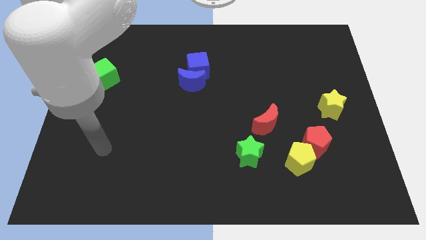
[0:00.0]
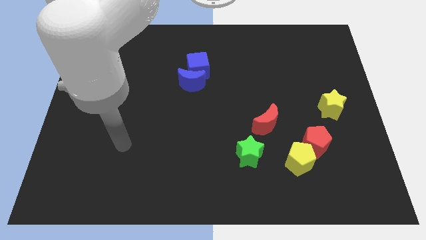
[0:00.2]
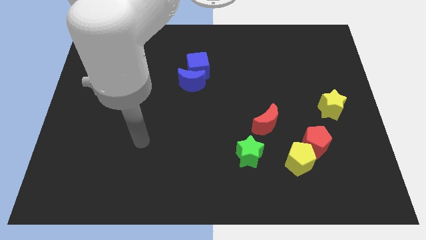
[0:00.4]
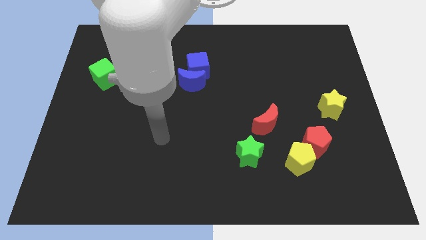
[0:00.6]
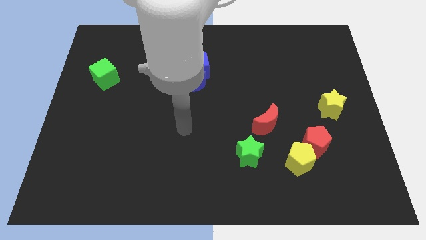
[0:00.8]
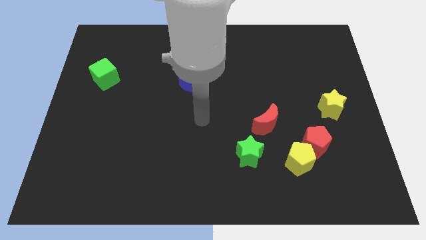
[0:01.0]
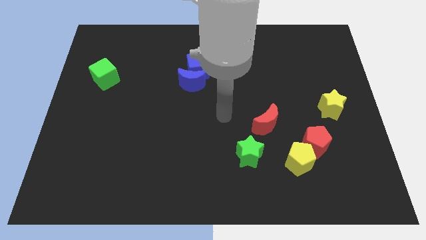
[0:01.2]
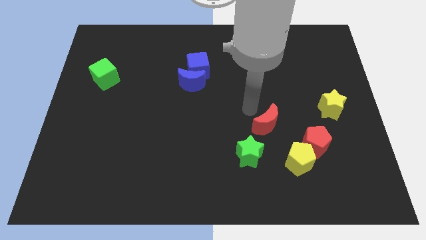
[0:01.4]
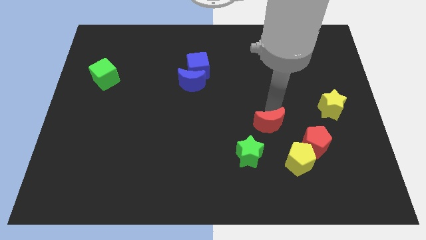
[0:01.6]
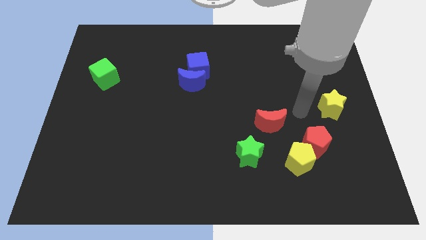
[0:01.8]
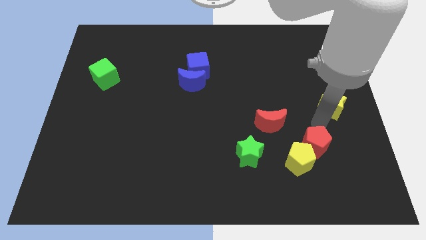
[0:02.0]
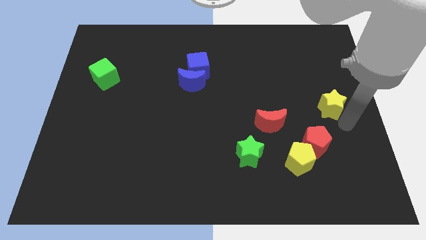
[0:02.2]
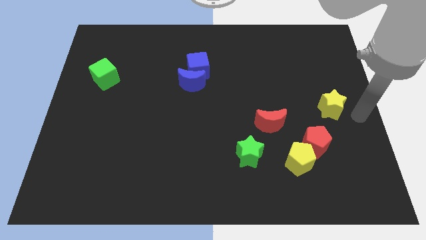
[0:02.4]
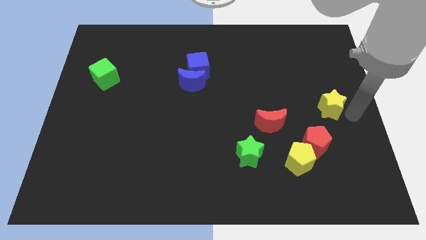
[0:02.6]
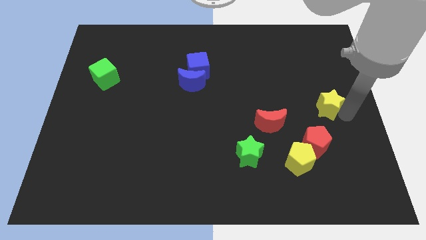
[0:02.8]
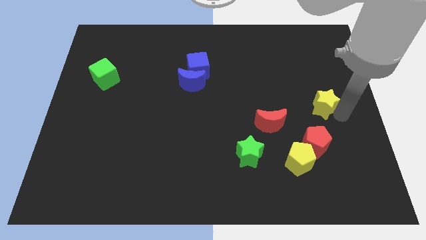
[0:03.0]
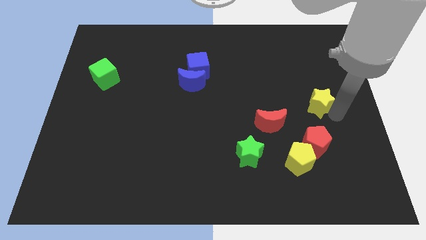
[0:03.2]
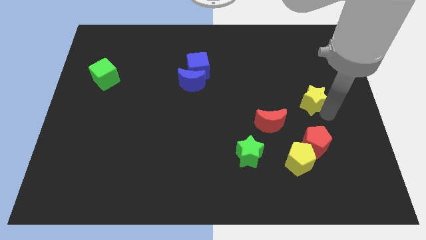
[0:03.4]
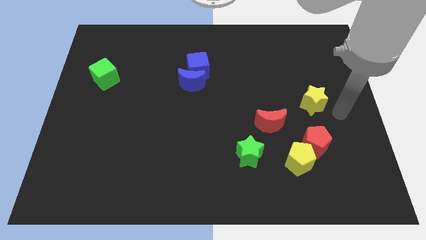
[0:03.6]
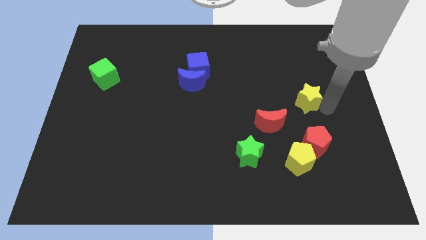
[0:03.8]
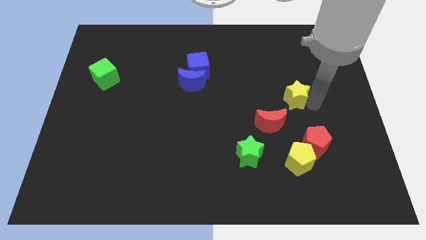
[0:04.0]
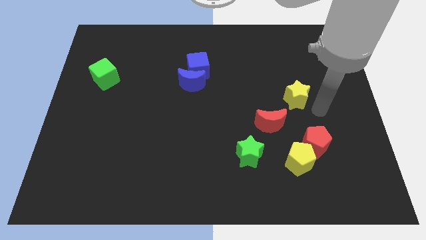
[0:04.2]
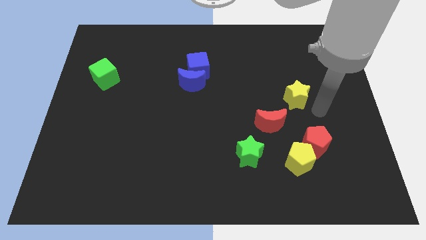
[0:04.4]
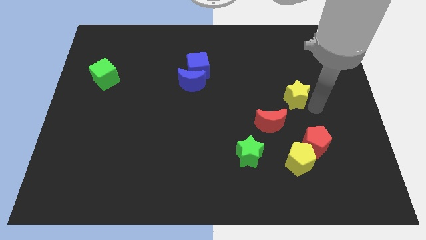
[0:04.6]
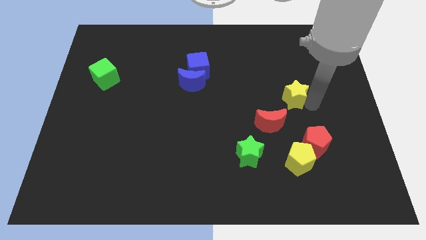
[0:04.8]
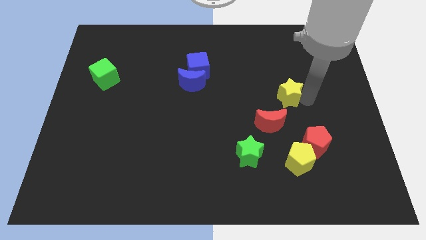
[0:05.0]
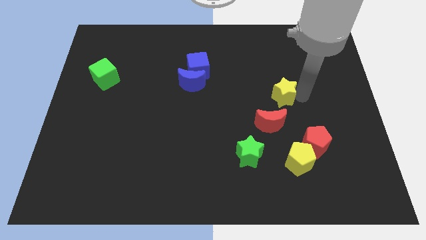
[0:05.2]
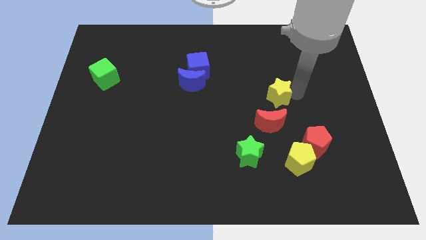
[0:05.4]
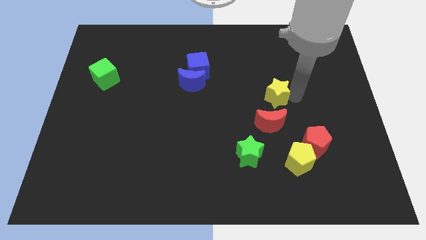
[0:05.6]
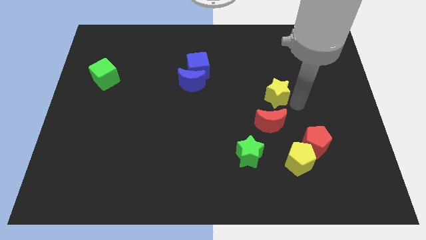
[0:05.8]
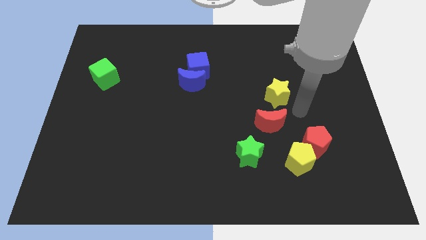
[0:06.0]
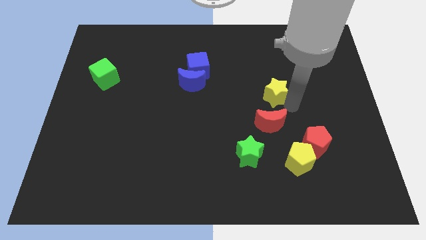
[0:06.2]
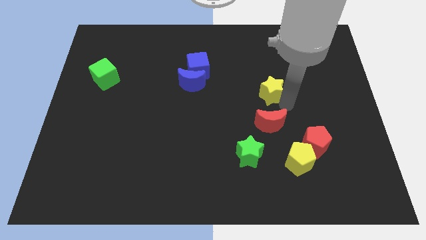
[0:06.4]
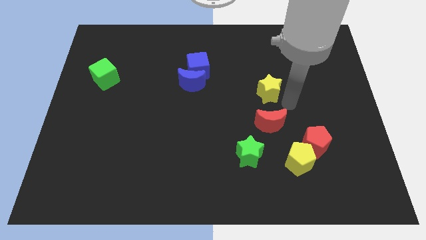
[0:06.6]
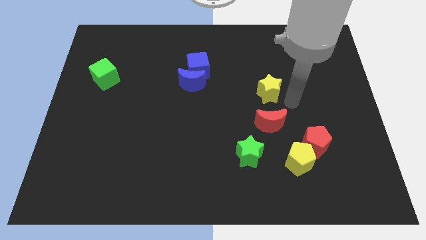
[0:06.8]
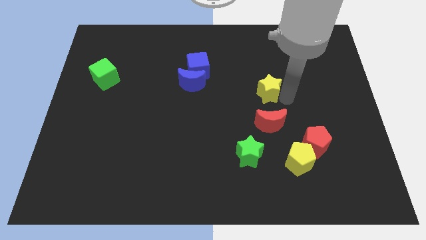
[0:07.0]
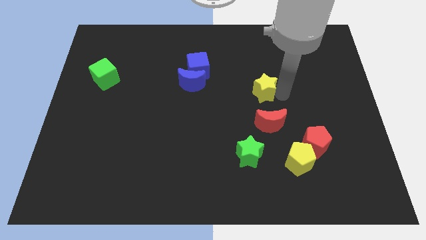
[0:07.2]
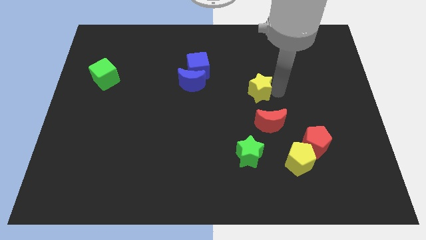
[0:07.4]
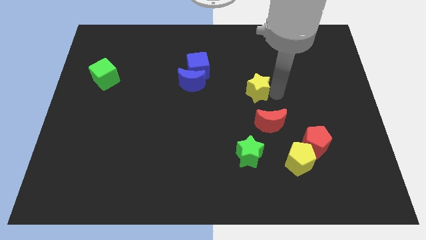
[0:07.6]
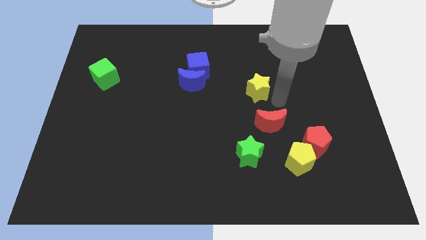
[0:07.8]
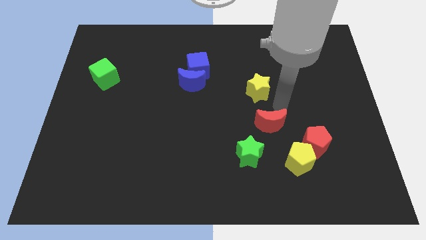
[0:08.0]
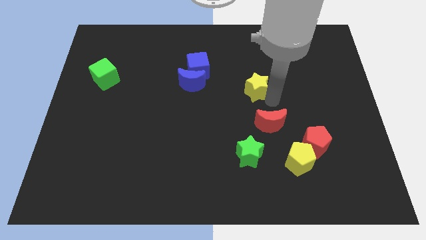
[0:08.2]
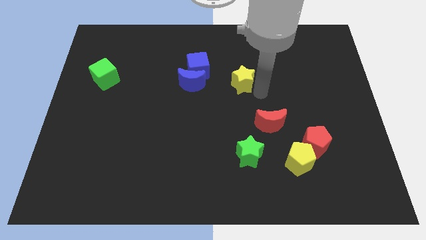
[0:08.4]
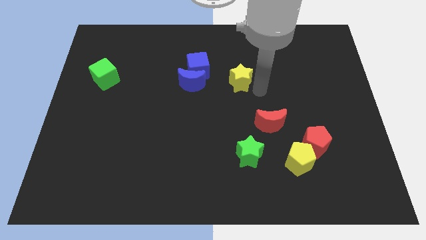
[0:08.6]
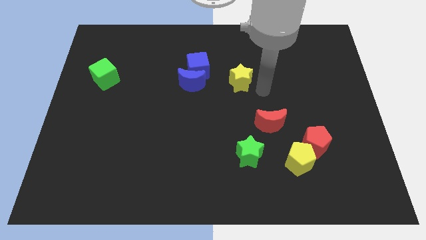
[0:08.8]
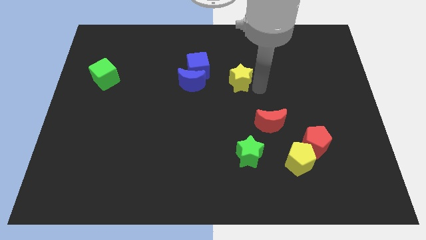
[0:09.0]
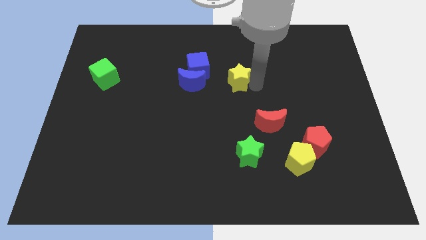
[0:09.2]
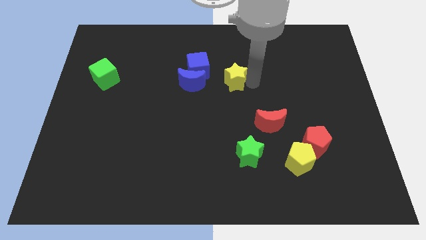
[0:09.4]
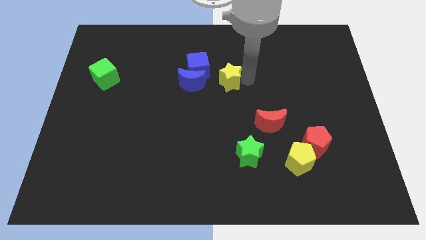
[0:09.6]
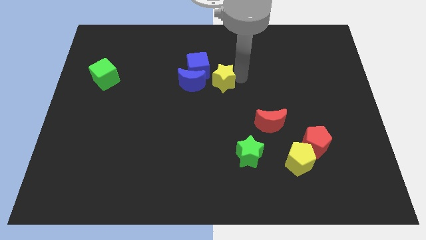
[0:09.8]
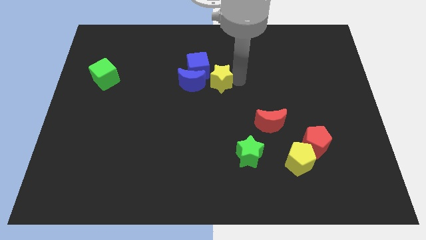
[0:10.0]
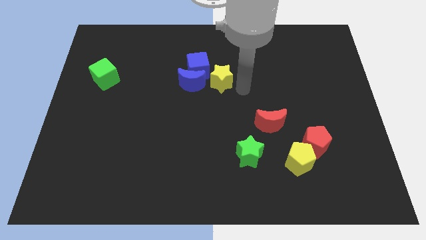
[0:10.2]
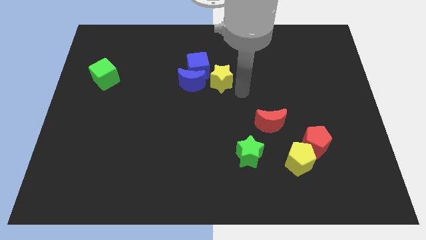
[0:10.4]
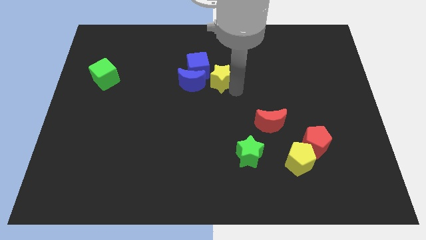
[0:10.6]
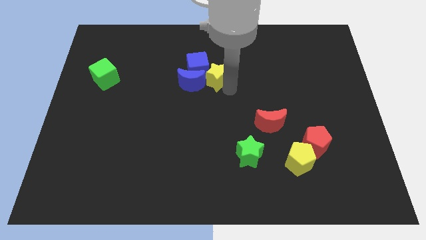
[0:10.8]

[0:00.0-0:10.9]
move the yellow star towards the blue cube

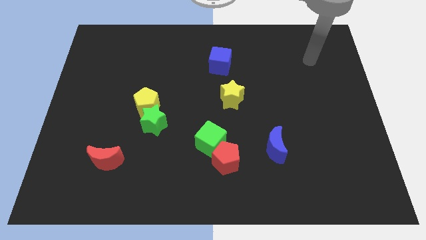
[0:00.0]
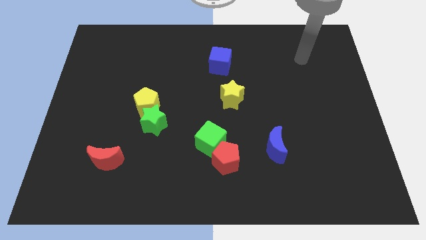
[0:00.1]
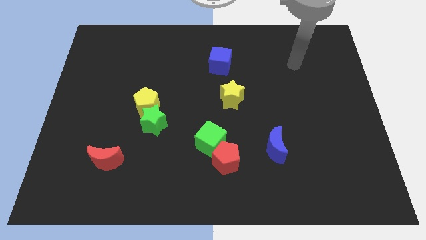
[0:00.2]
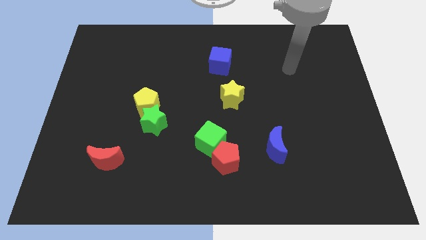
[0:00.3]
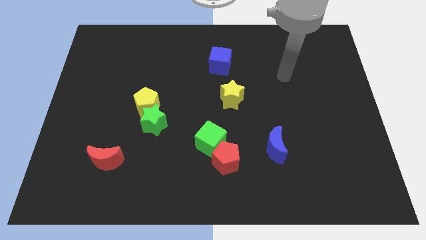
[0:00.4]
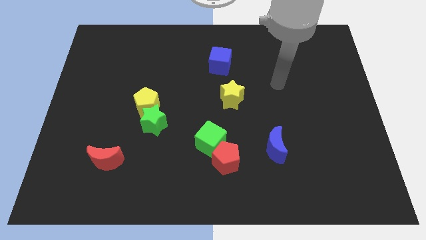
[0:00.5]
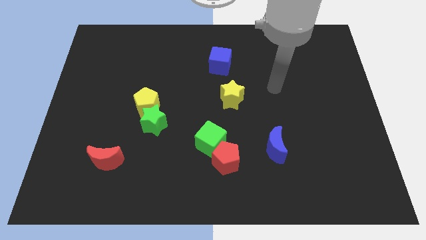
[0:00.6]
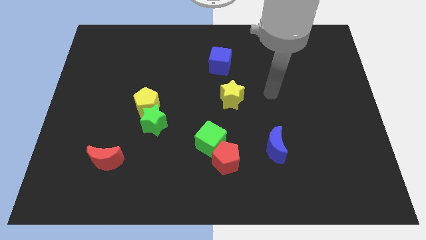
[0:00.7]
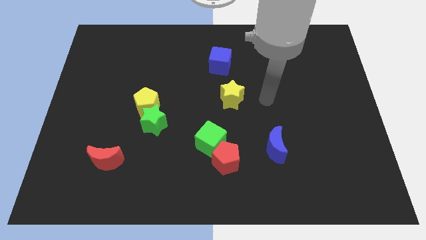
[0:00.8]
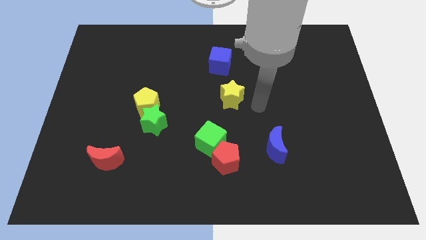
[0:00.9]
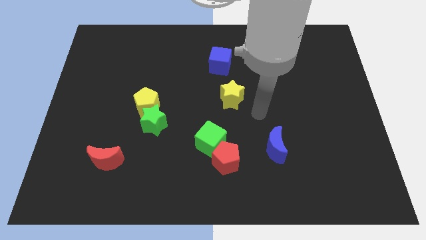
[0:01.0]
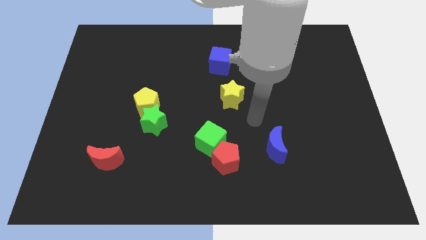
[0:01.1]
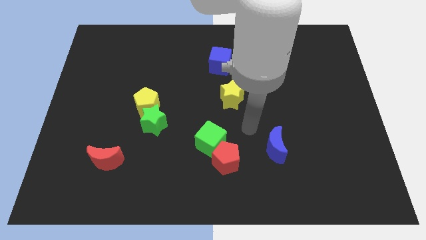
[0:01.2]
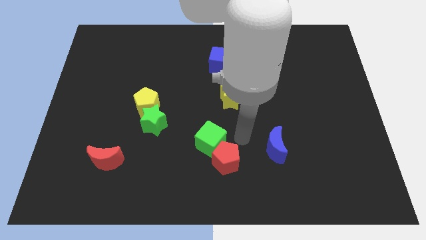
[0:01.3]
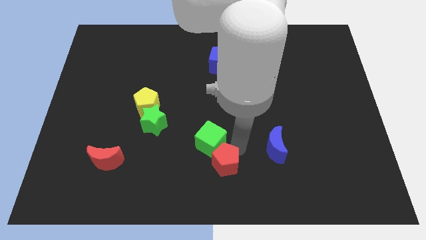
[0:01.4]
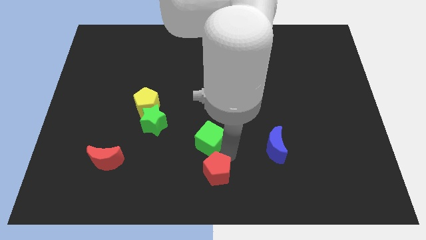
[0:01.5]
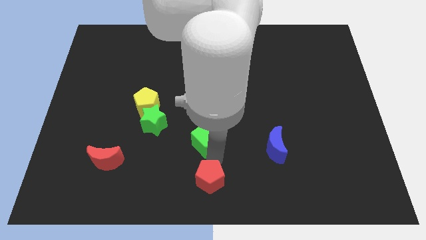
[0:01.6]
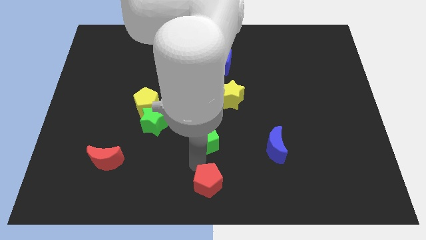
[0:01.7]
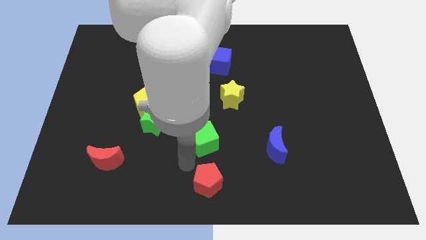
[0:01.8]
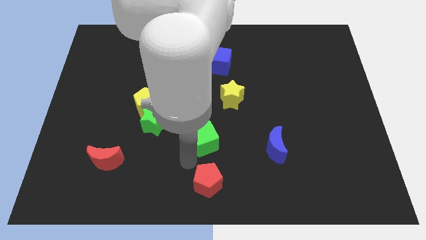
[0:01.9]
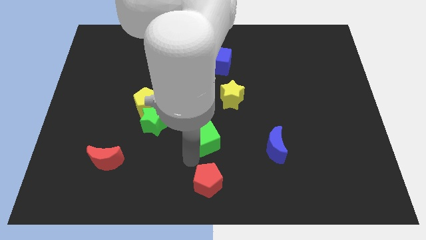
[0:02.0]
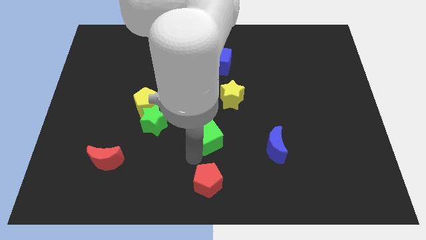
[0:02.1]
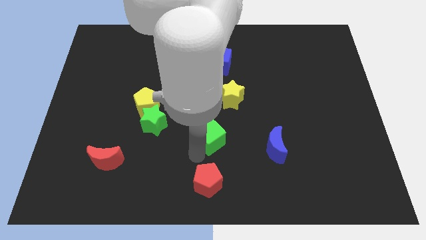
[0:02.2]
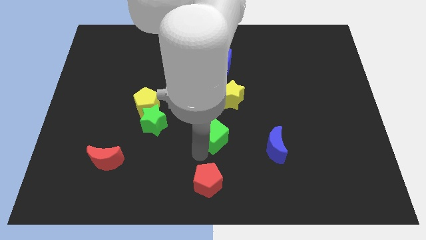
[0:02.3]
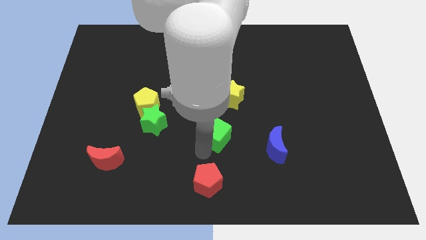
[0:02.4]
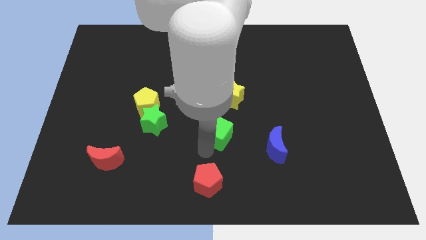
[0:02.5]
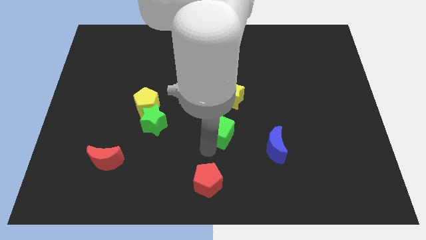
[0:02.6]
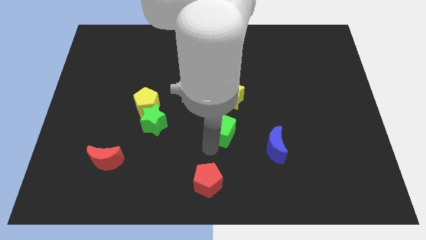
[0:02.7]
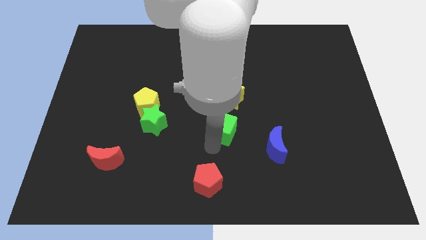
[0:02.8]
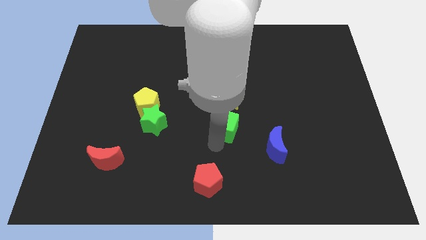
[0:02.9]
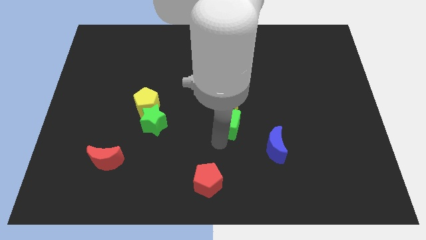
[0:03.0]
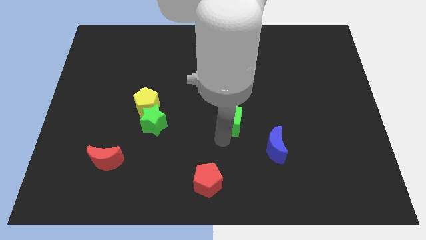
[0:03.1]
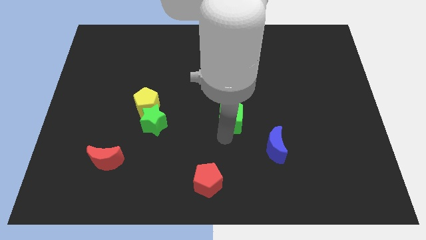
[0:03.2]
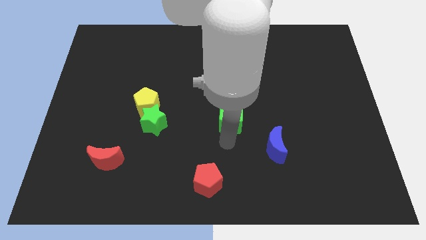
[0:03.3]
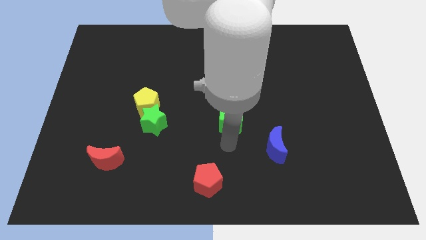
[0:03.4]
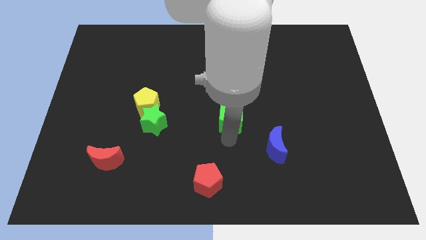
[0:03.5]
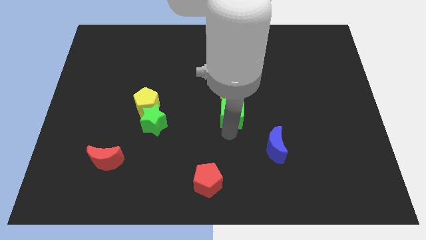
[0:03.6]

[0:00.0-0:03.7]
push the green cube close to the yellow star
